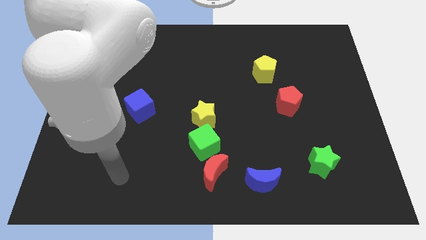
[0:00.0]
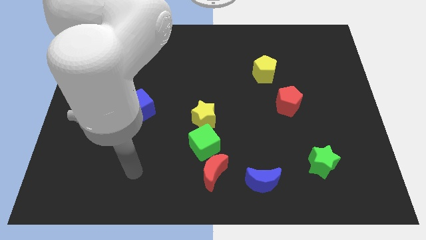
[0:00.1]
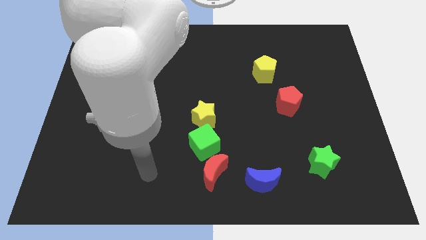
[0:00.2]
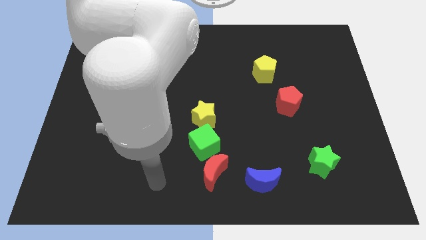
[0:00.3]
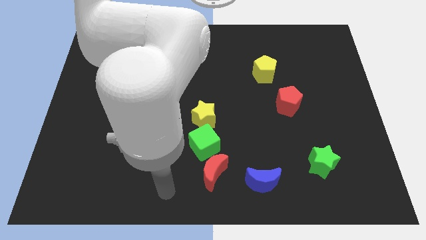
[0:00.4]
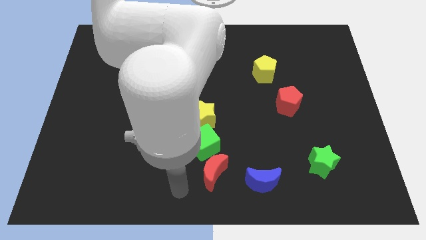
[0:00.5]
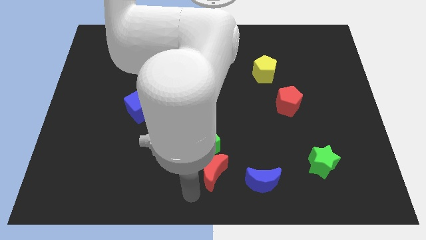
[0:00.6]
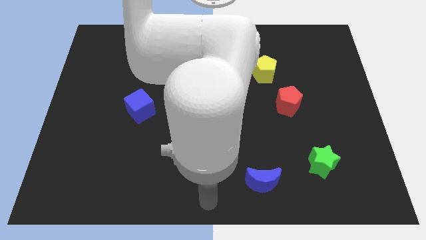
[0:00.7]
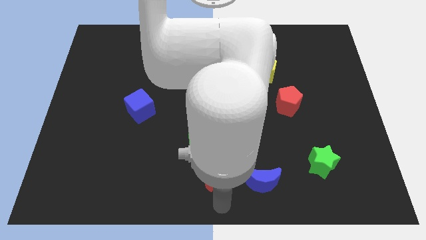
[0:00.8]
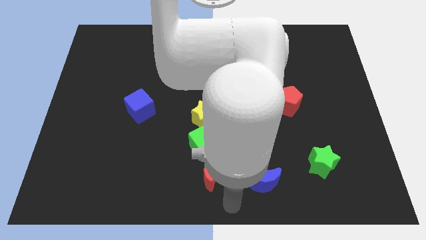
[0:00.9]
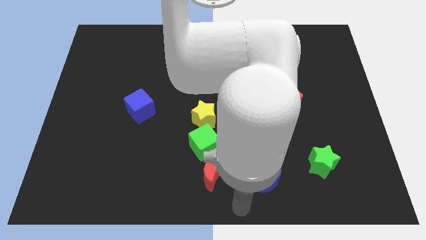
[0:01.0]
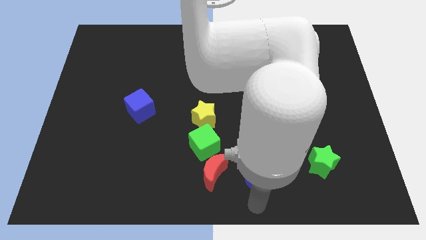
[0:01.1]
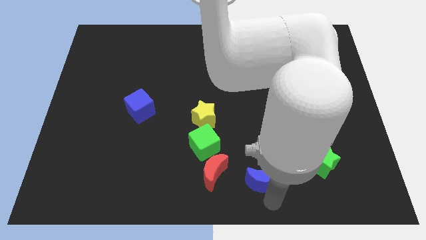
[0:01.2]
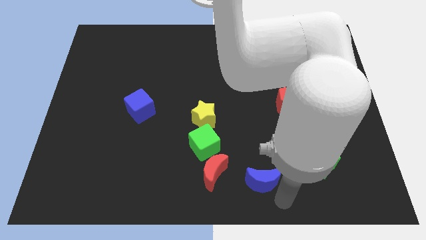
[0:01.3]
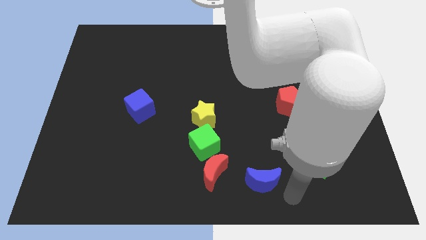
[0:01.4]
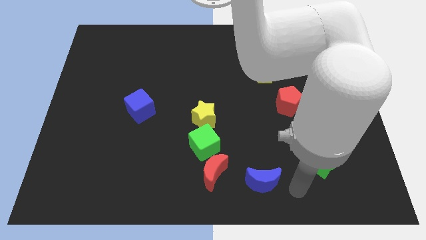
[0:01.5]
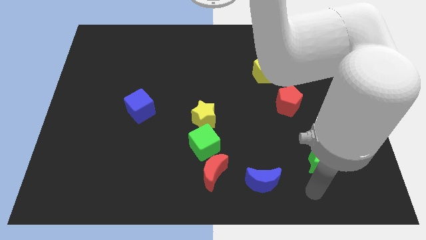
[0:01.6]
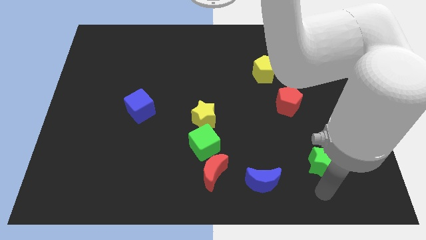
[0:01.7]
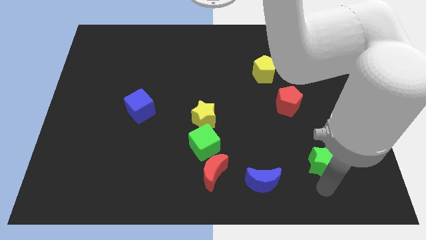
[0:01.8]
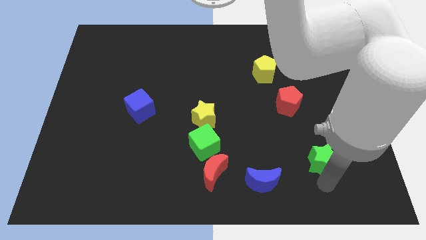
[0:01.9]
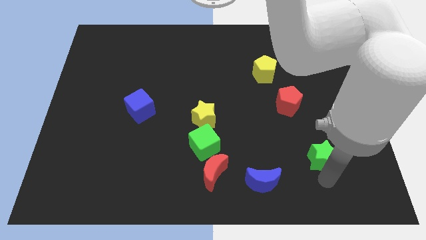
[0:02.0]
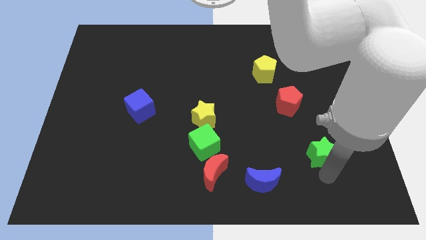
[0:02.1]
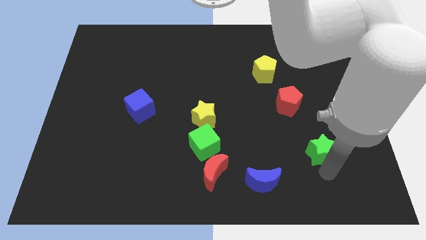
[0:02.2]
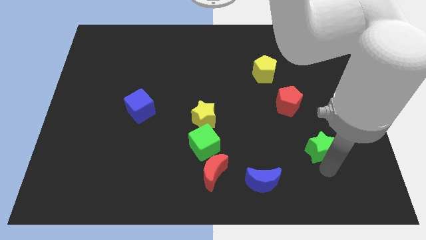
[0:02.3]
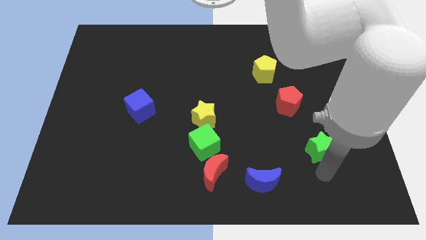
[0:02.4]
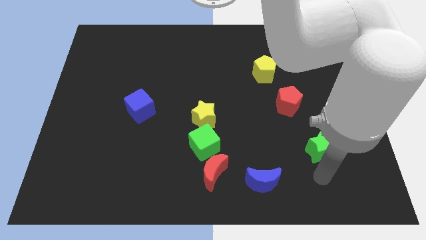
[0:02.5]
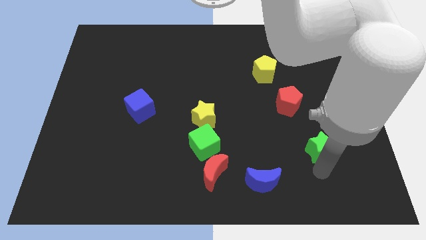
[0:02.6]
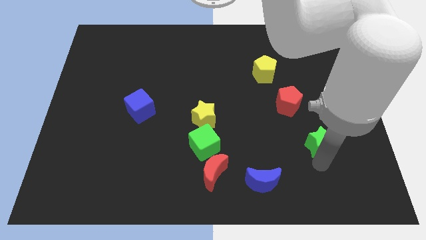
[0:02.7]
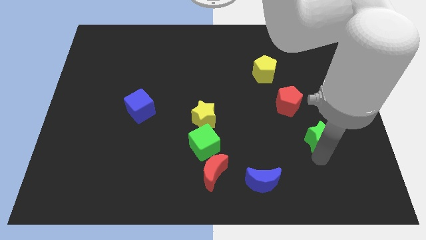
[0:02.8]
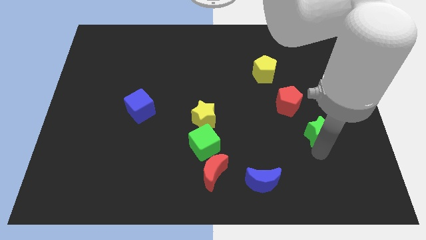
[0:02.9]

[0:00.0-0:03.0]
move the green star somewhat up

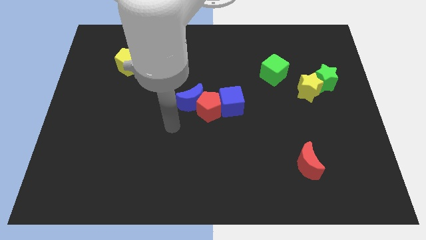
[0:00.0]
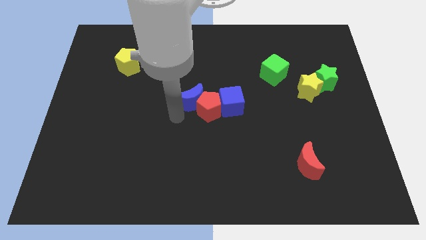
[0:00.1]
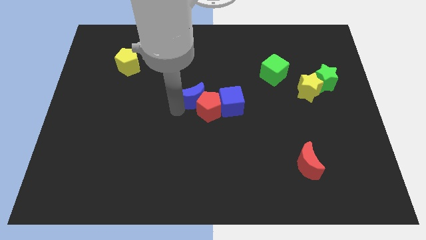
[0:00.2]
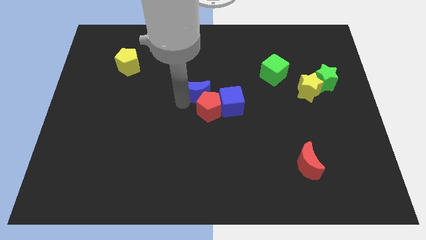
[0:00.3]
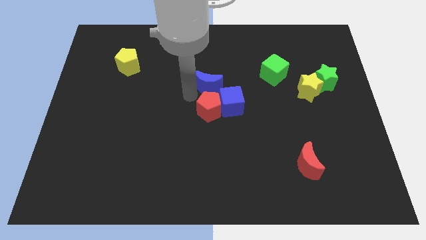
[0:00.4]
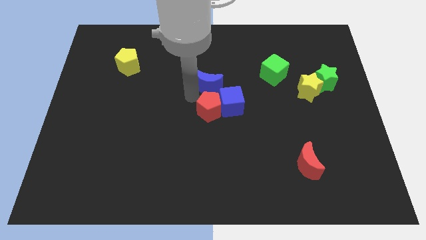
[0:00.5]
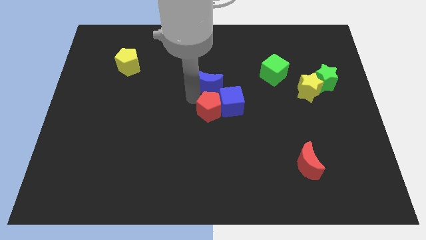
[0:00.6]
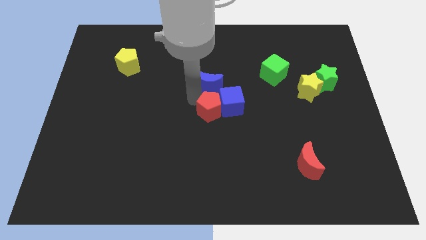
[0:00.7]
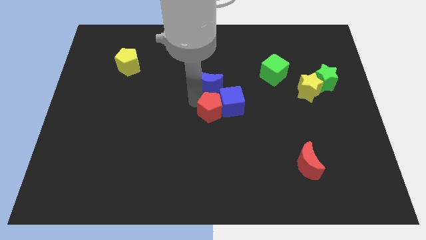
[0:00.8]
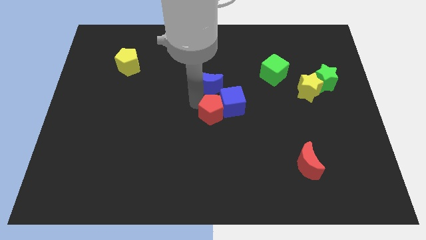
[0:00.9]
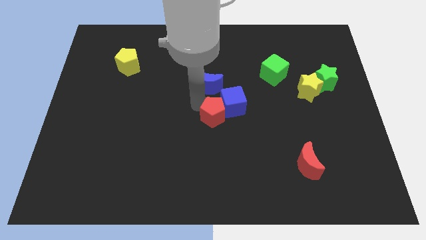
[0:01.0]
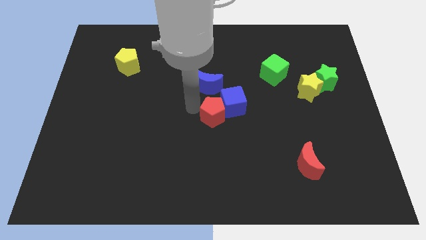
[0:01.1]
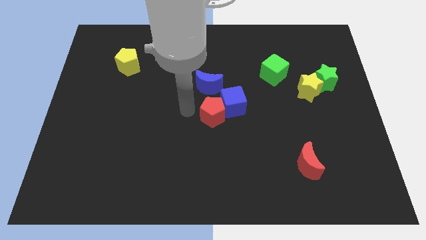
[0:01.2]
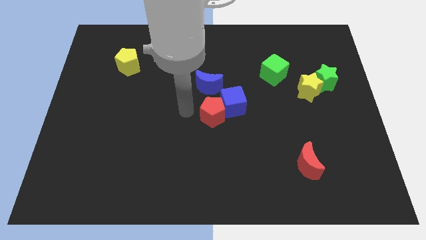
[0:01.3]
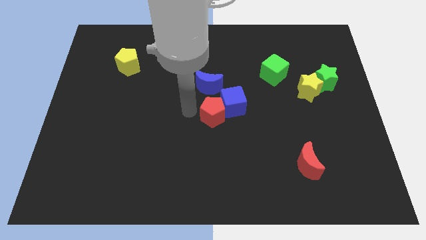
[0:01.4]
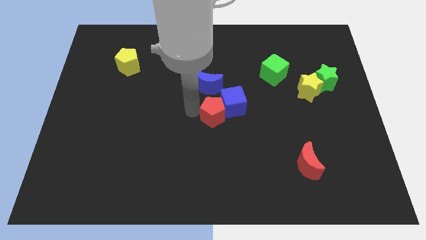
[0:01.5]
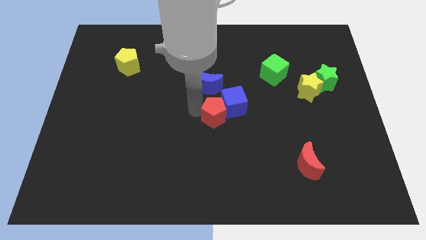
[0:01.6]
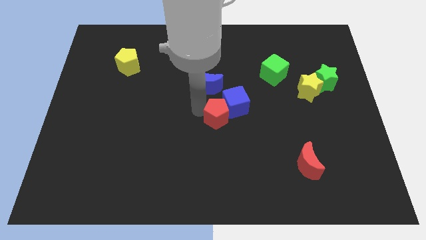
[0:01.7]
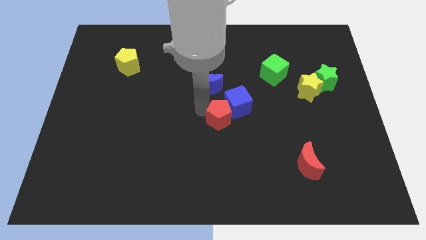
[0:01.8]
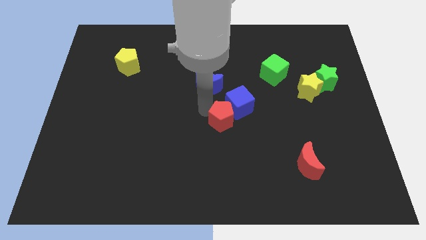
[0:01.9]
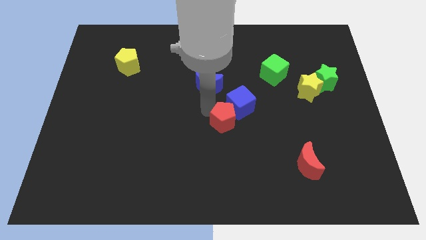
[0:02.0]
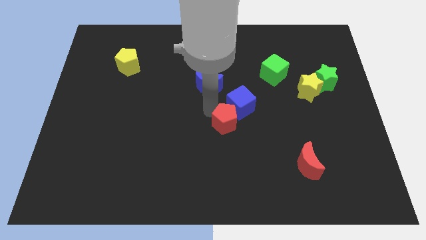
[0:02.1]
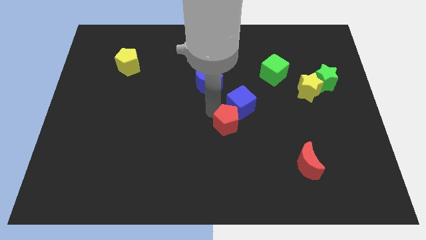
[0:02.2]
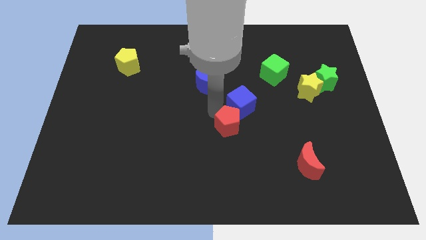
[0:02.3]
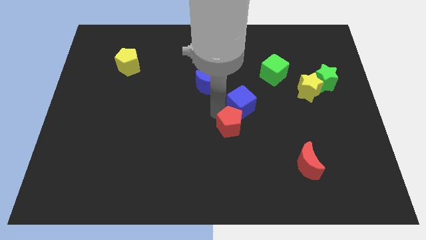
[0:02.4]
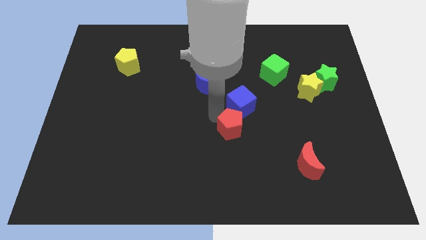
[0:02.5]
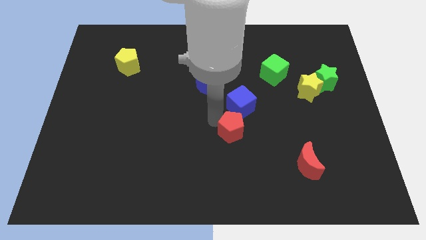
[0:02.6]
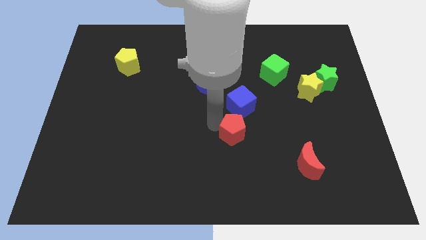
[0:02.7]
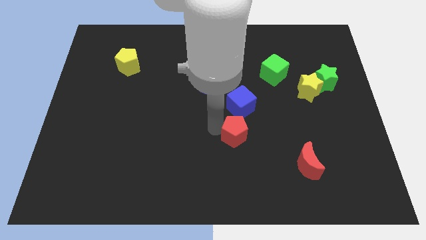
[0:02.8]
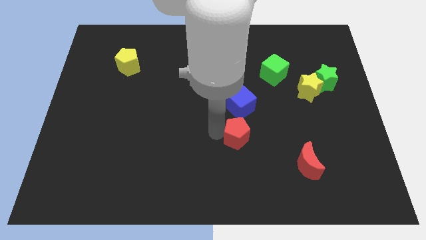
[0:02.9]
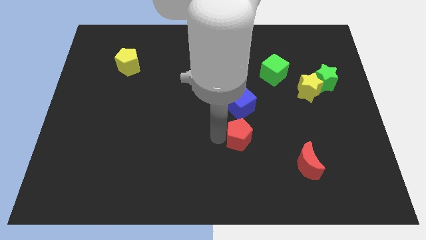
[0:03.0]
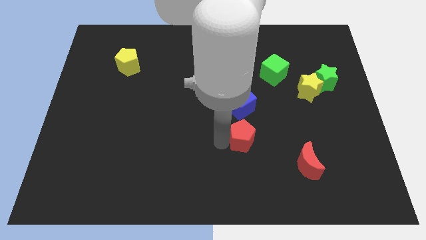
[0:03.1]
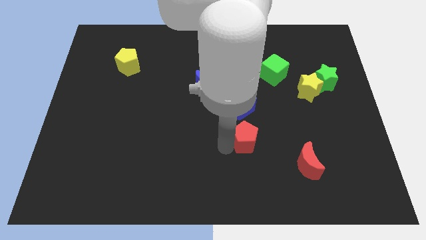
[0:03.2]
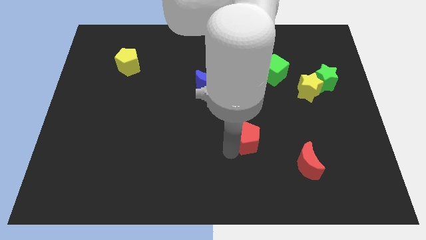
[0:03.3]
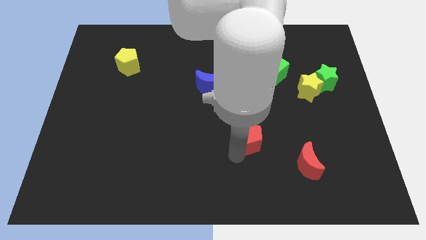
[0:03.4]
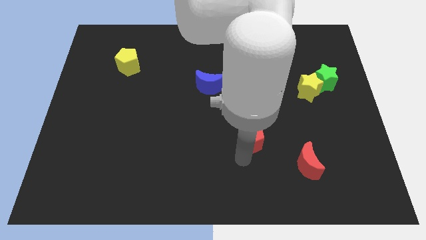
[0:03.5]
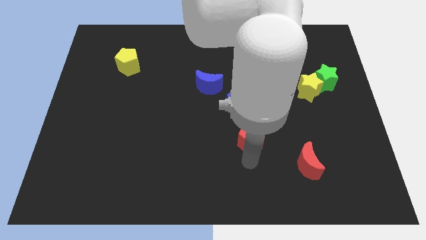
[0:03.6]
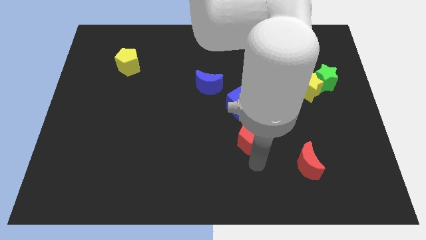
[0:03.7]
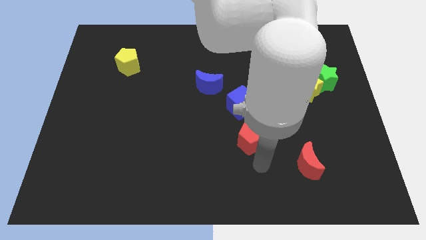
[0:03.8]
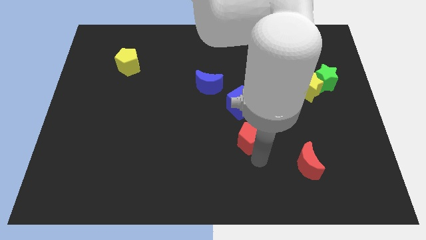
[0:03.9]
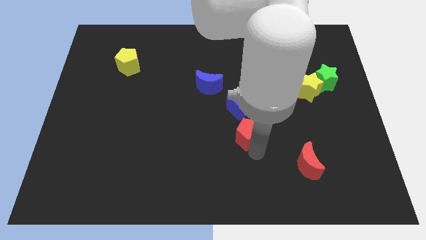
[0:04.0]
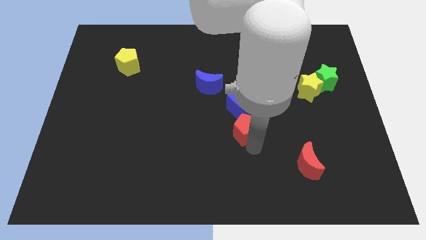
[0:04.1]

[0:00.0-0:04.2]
push the red pentagon to the right slightly

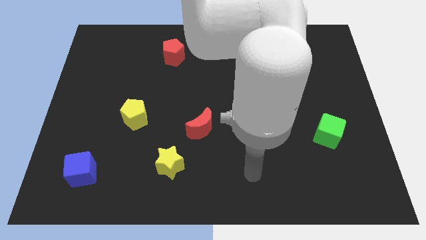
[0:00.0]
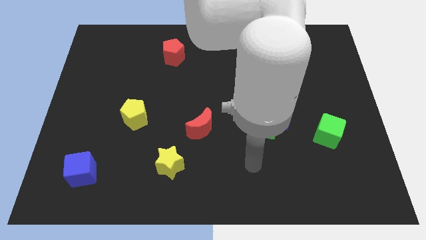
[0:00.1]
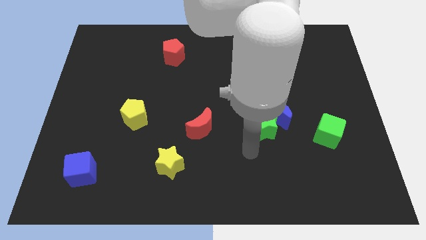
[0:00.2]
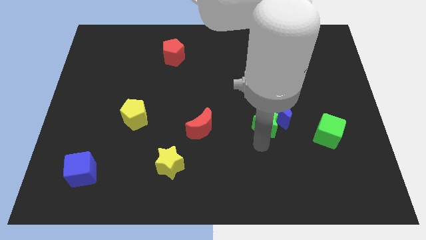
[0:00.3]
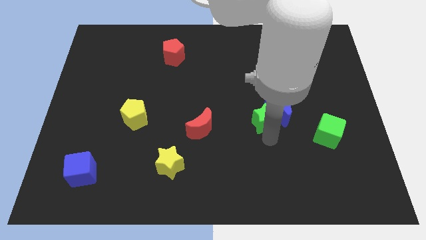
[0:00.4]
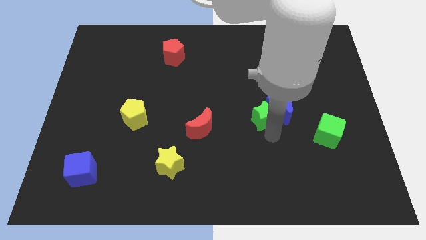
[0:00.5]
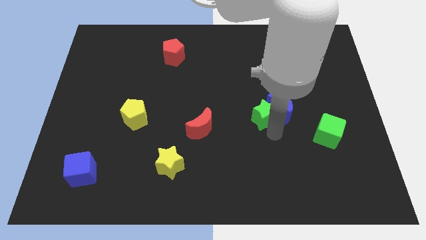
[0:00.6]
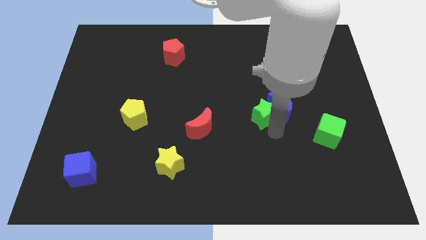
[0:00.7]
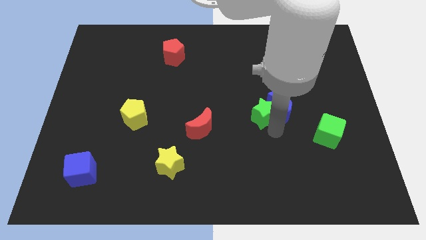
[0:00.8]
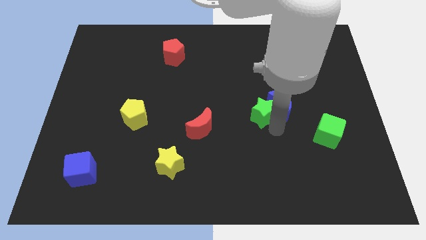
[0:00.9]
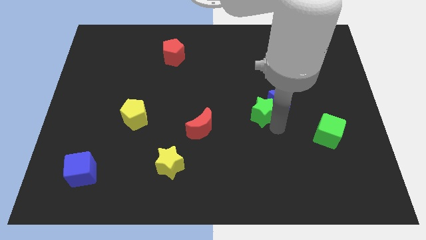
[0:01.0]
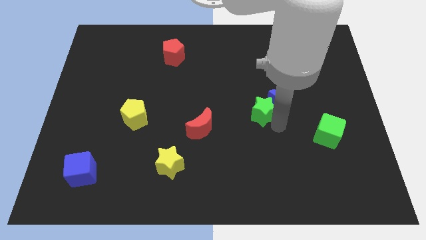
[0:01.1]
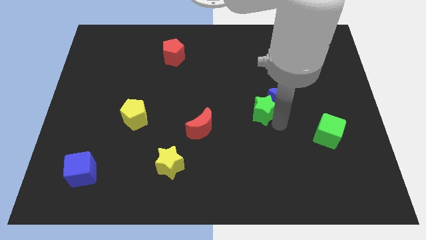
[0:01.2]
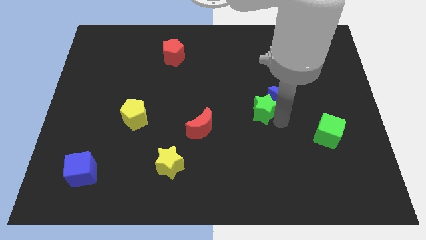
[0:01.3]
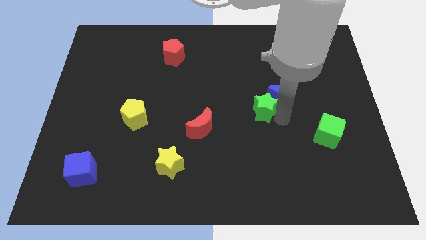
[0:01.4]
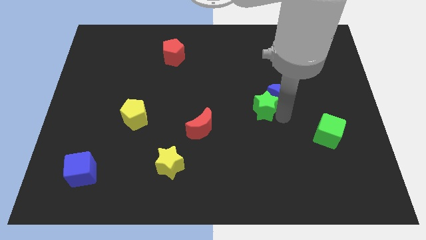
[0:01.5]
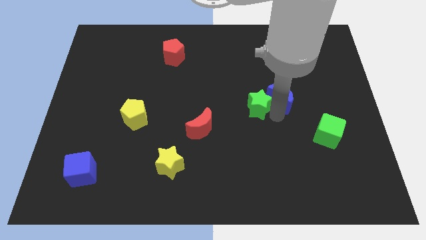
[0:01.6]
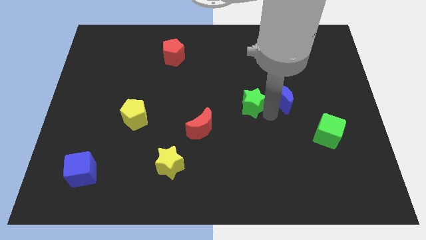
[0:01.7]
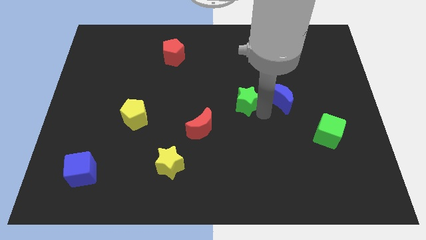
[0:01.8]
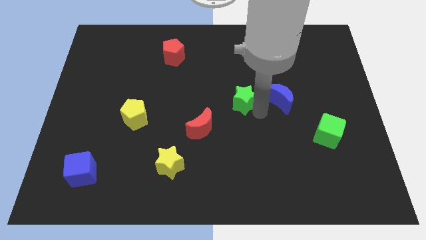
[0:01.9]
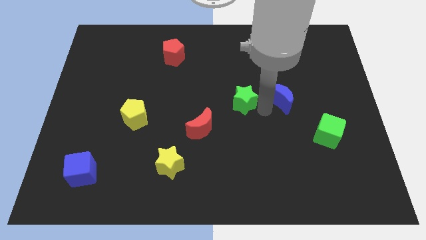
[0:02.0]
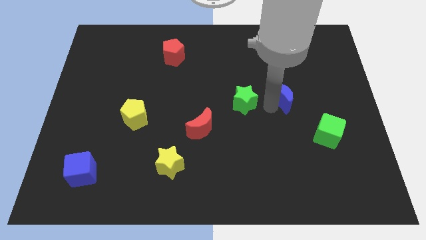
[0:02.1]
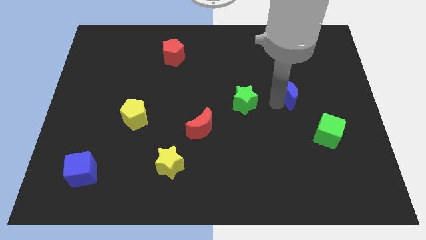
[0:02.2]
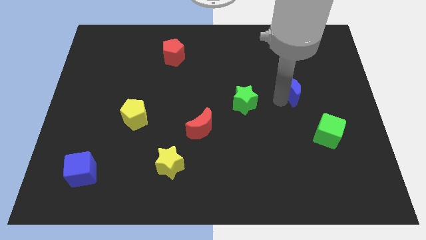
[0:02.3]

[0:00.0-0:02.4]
slightly slide the blue moon up and right
